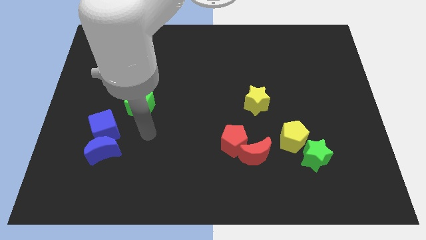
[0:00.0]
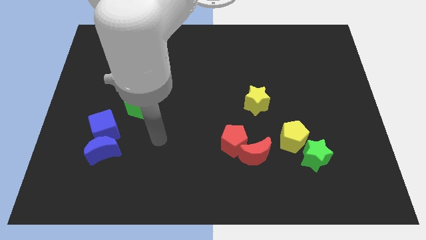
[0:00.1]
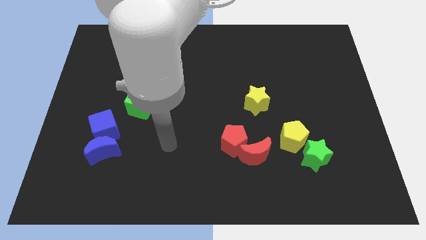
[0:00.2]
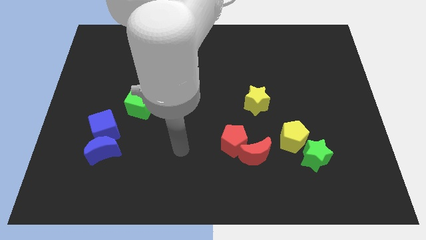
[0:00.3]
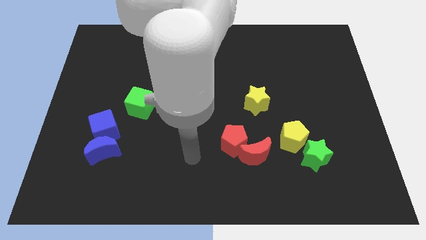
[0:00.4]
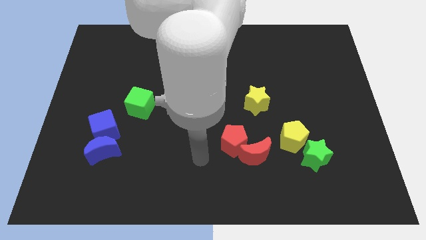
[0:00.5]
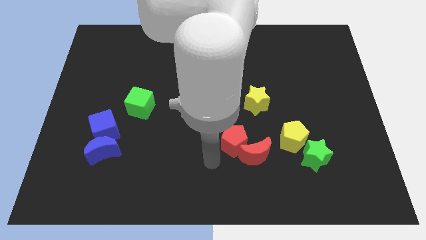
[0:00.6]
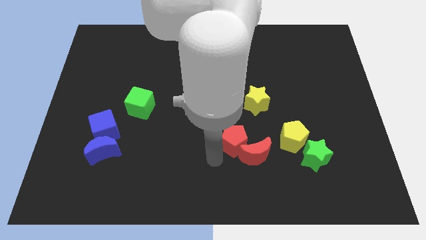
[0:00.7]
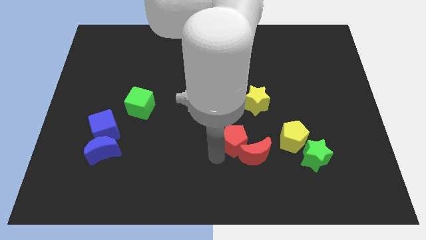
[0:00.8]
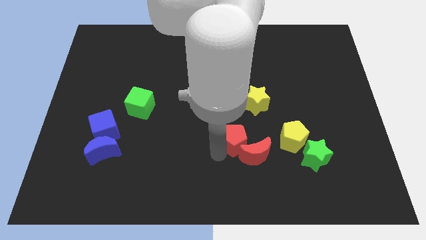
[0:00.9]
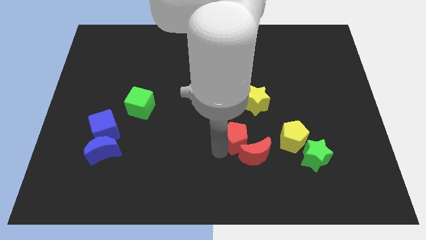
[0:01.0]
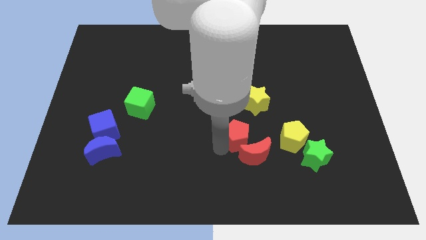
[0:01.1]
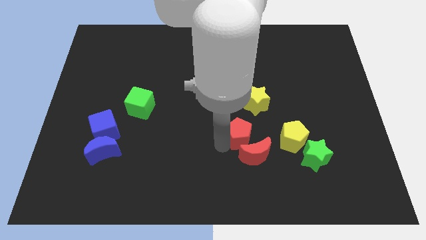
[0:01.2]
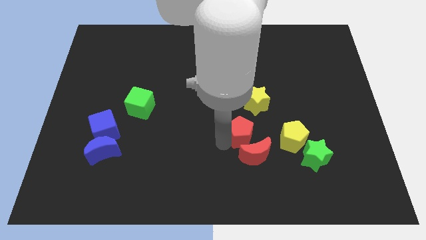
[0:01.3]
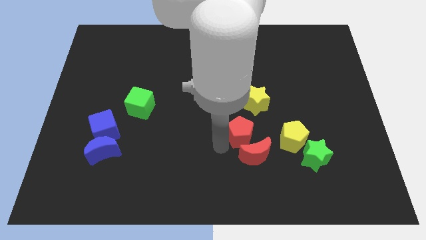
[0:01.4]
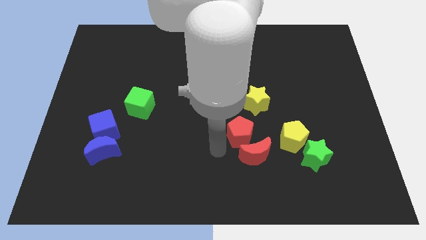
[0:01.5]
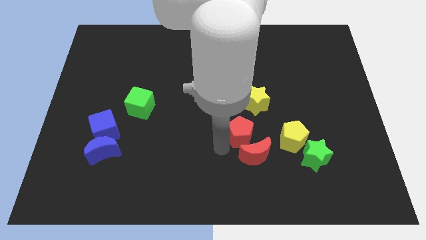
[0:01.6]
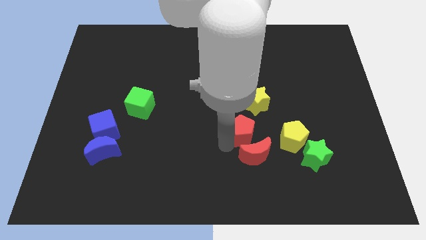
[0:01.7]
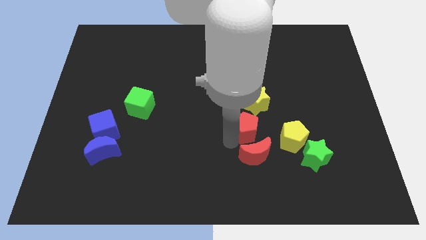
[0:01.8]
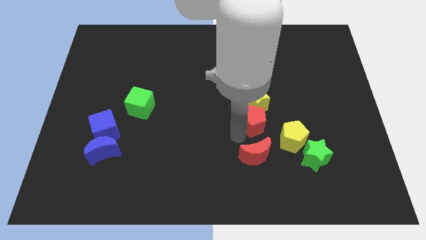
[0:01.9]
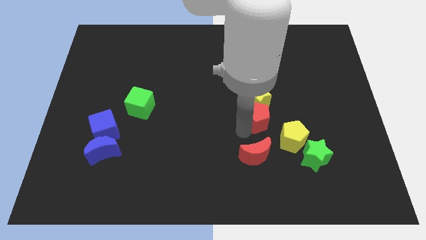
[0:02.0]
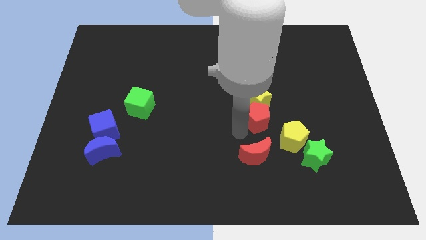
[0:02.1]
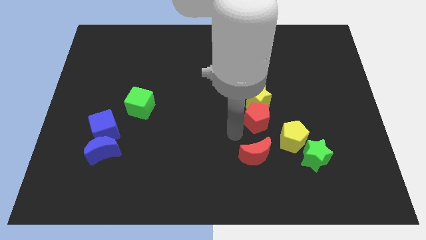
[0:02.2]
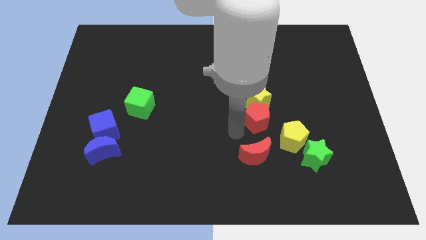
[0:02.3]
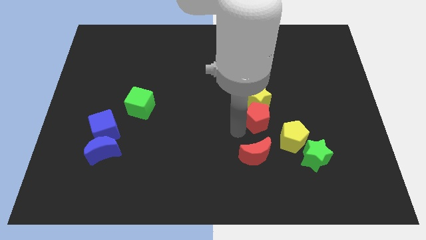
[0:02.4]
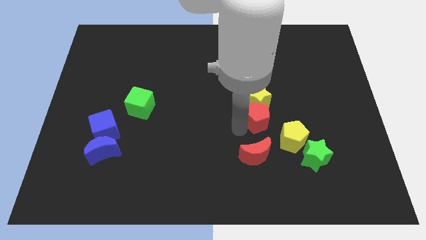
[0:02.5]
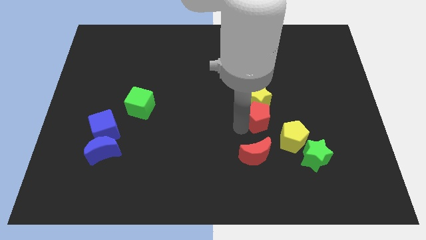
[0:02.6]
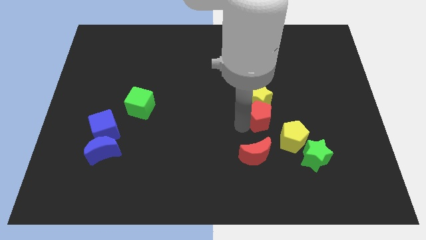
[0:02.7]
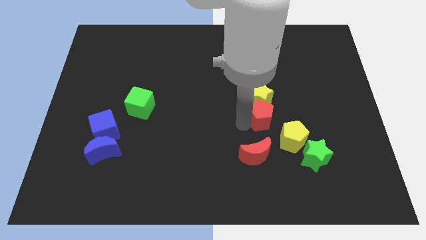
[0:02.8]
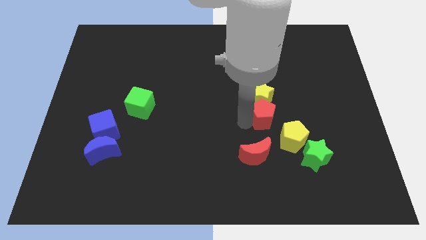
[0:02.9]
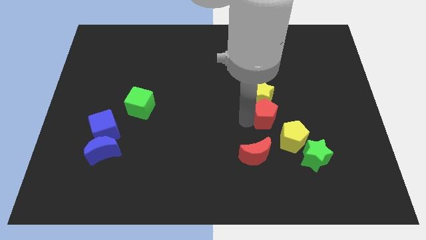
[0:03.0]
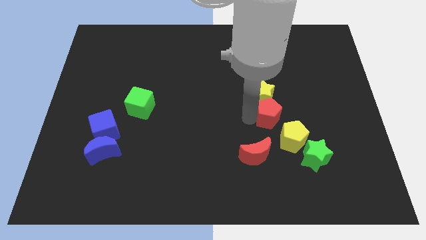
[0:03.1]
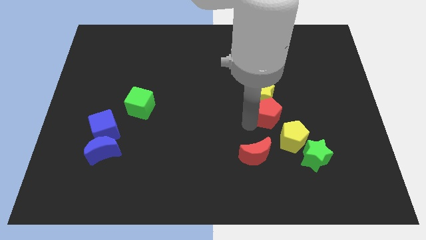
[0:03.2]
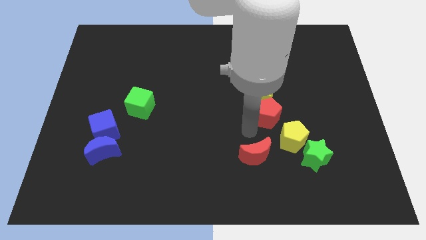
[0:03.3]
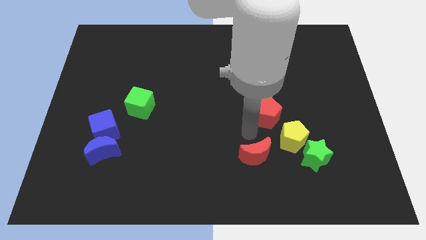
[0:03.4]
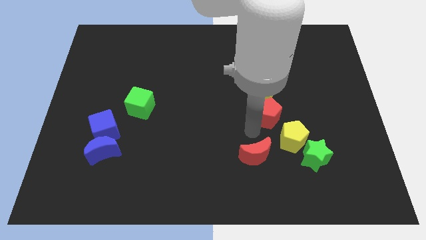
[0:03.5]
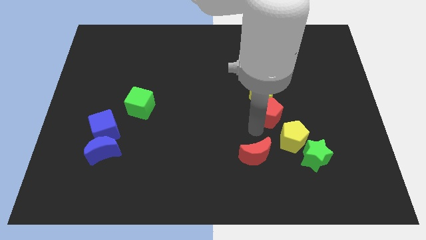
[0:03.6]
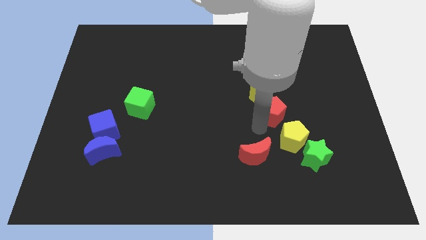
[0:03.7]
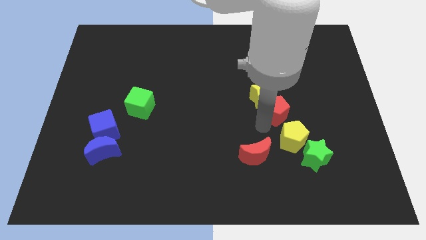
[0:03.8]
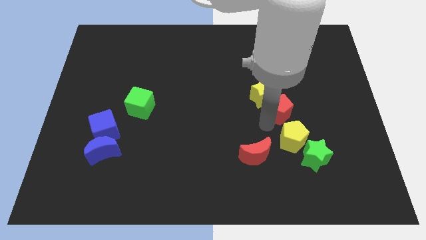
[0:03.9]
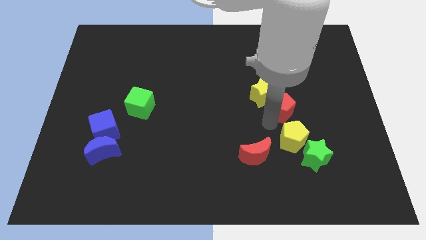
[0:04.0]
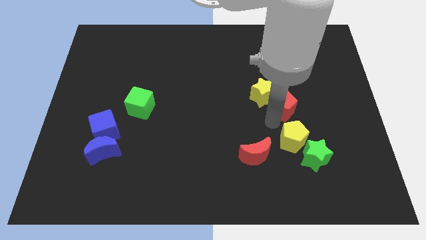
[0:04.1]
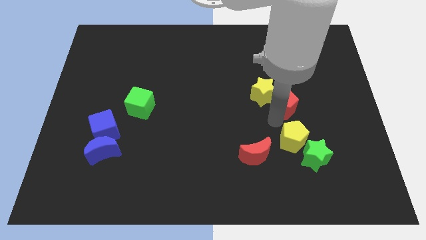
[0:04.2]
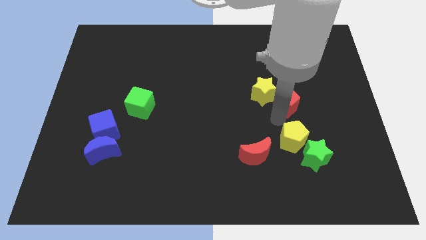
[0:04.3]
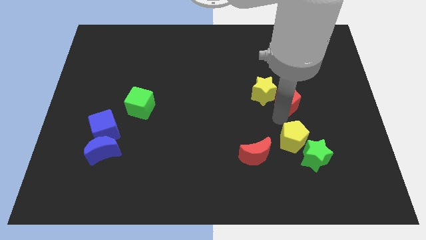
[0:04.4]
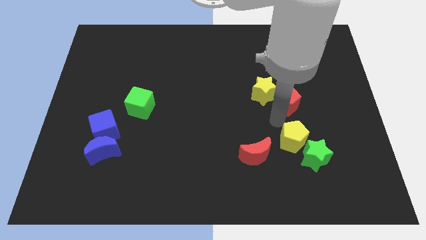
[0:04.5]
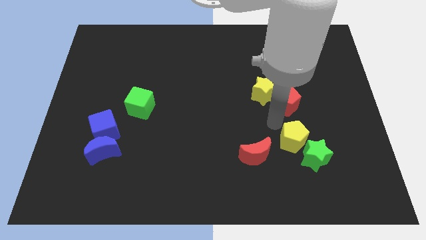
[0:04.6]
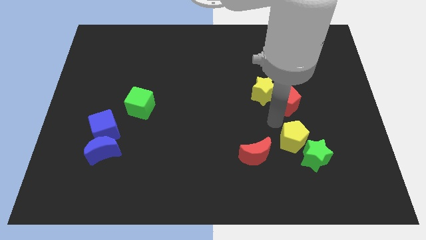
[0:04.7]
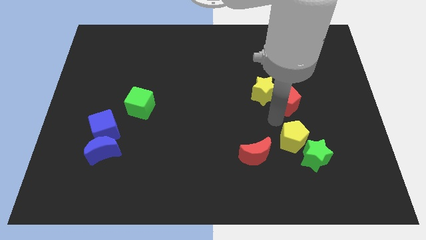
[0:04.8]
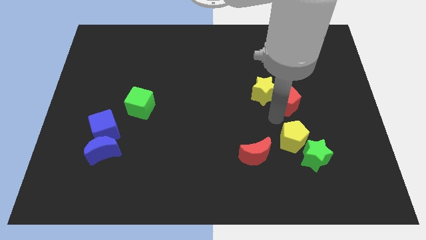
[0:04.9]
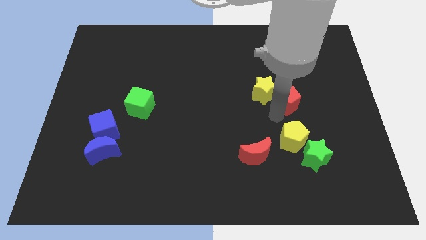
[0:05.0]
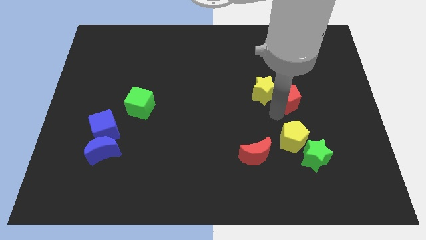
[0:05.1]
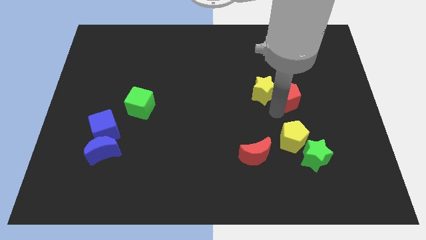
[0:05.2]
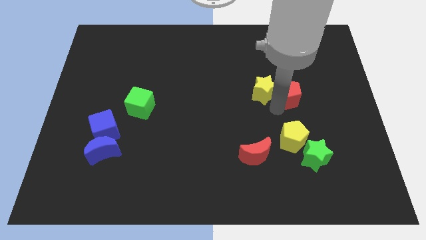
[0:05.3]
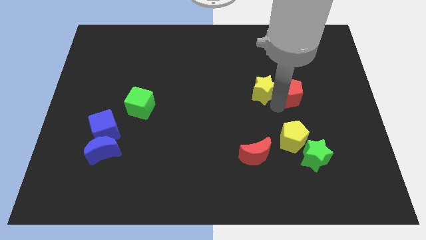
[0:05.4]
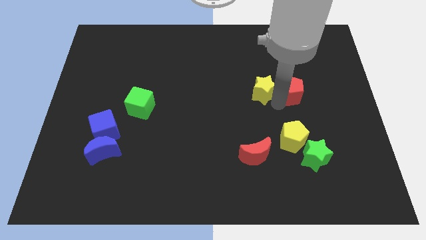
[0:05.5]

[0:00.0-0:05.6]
slide the red pentagon up and right diagonally

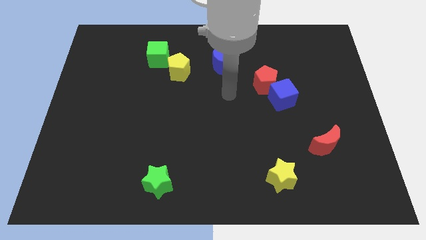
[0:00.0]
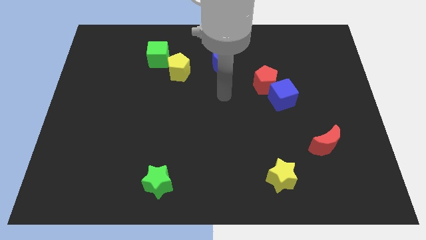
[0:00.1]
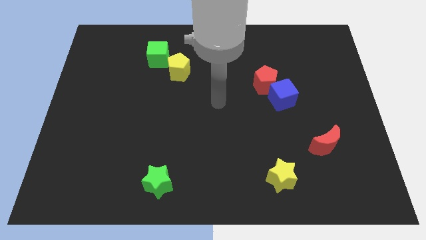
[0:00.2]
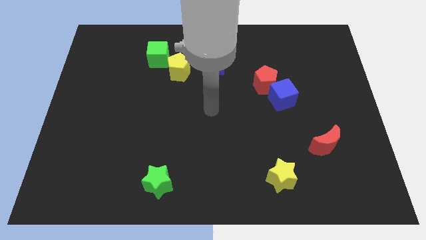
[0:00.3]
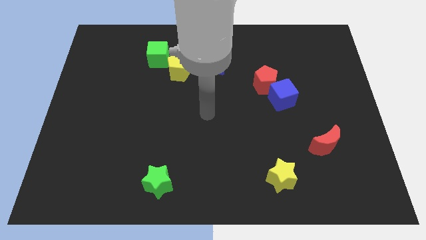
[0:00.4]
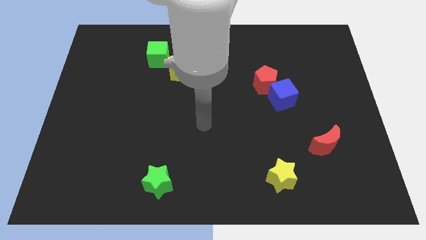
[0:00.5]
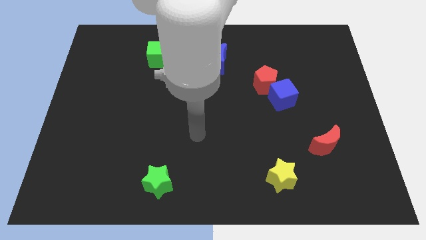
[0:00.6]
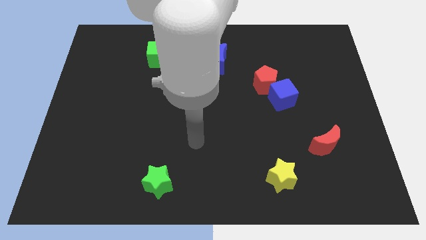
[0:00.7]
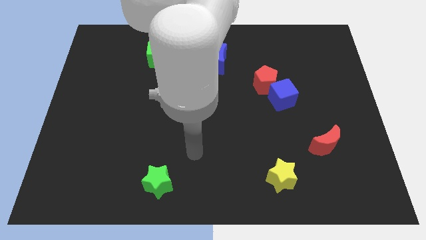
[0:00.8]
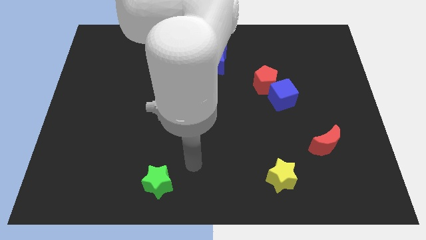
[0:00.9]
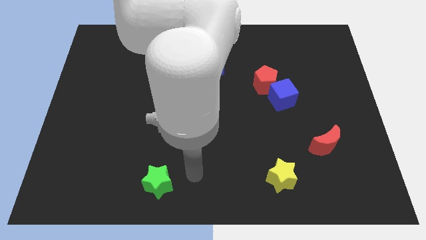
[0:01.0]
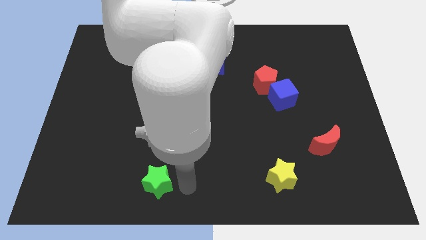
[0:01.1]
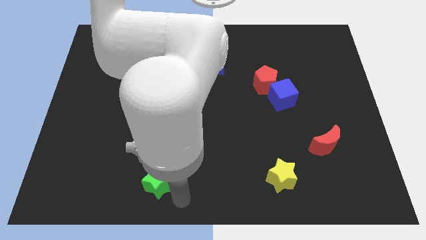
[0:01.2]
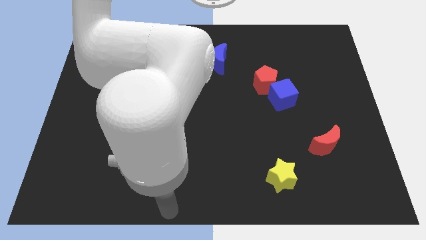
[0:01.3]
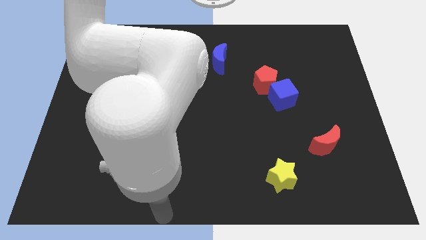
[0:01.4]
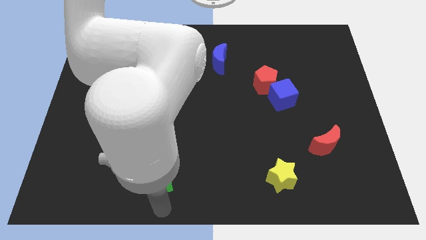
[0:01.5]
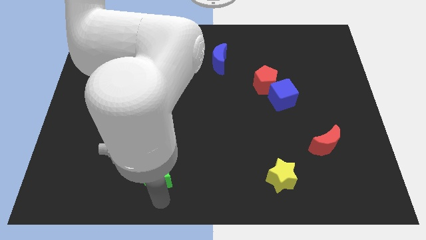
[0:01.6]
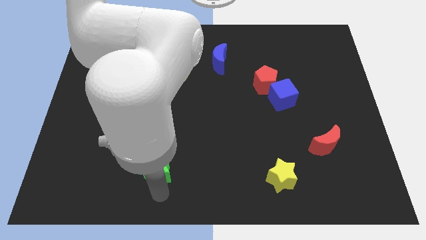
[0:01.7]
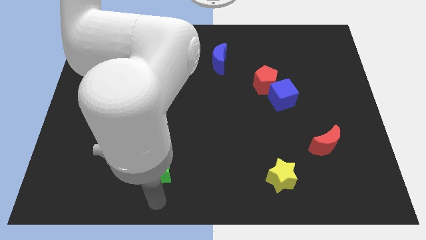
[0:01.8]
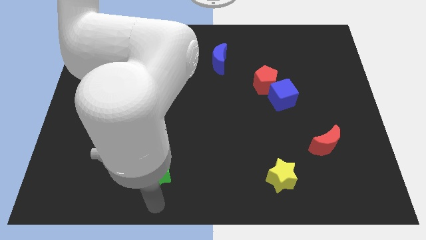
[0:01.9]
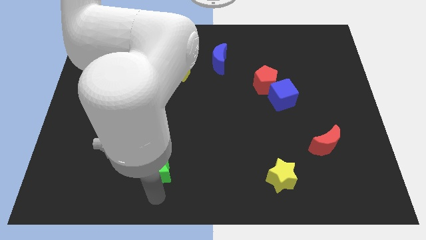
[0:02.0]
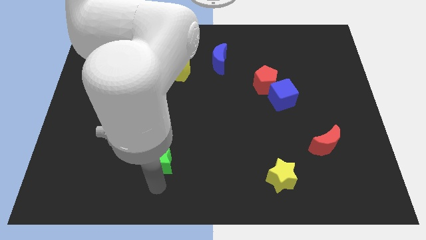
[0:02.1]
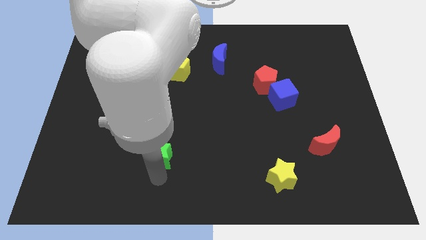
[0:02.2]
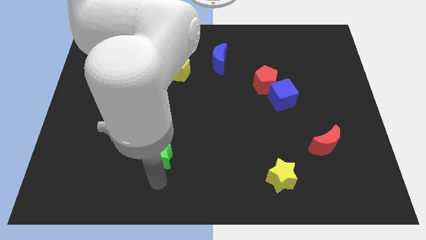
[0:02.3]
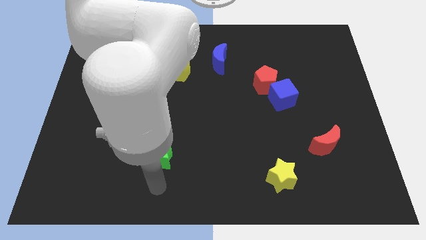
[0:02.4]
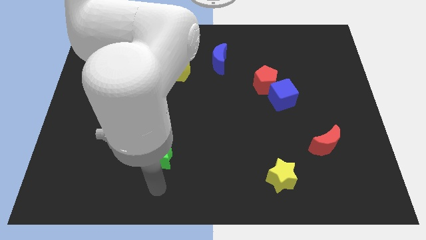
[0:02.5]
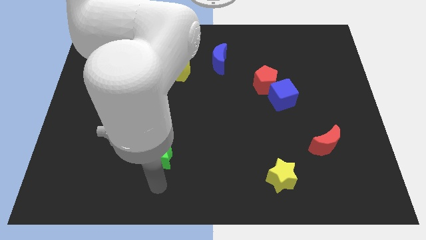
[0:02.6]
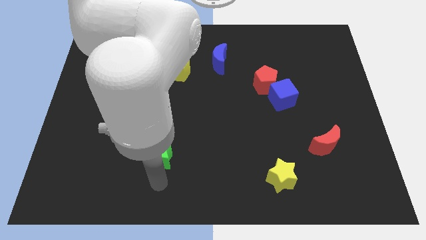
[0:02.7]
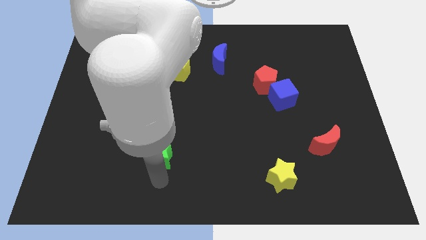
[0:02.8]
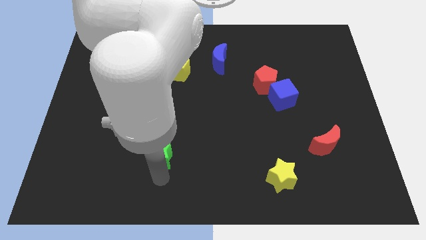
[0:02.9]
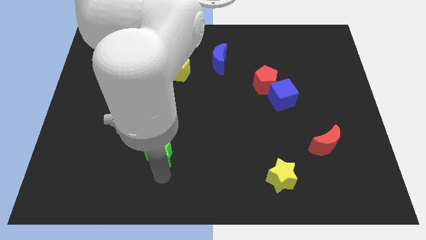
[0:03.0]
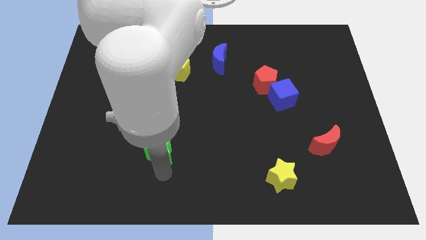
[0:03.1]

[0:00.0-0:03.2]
slightly move the green star up
